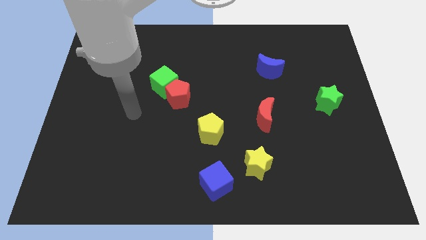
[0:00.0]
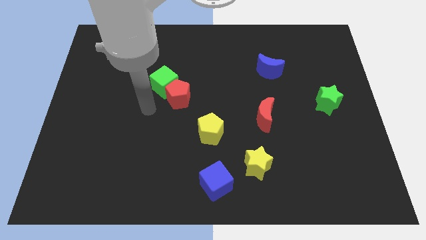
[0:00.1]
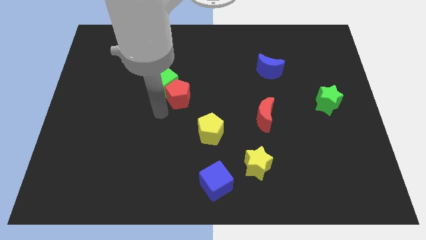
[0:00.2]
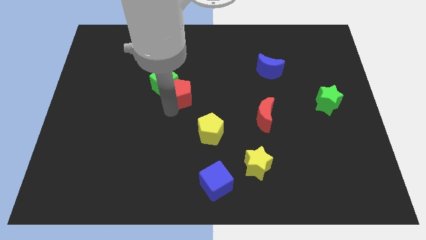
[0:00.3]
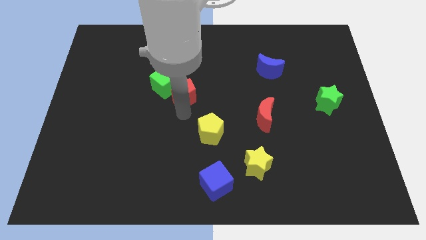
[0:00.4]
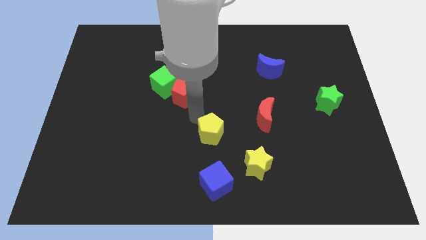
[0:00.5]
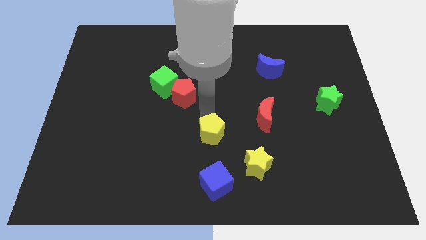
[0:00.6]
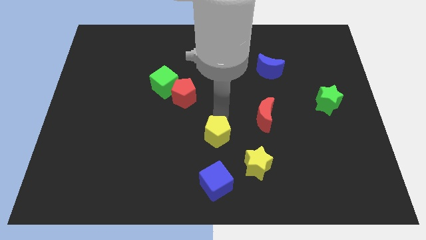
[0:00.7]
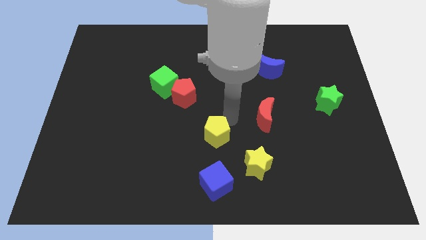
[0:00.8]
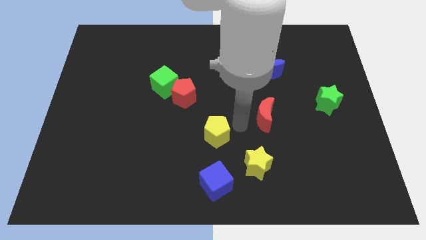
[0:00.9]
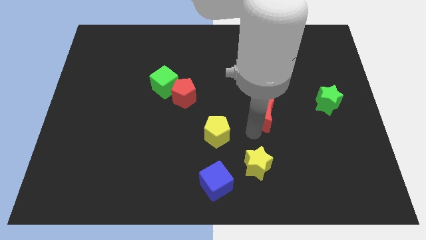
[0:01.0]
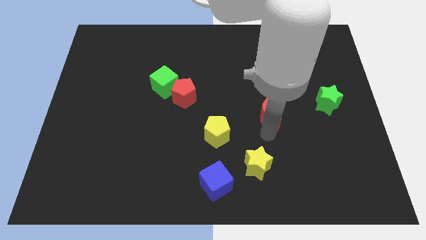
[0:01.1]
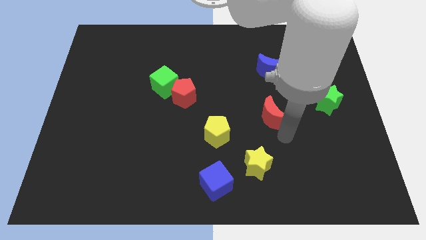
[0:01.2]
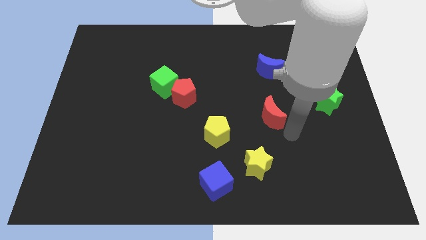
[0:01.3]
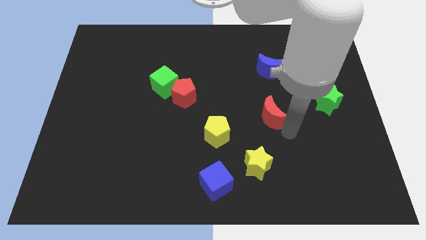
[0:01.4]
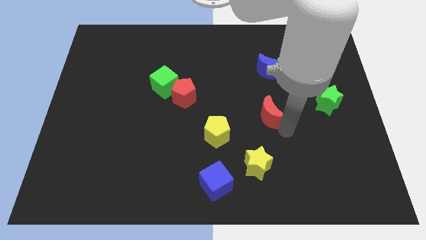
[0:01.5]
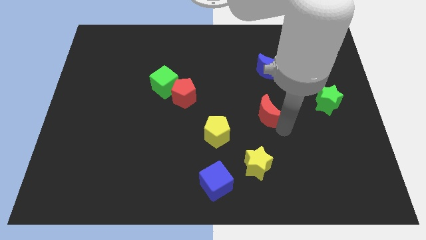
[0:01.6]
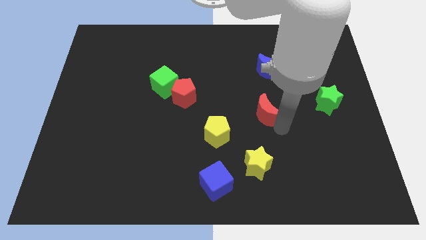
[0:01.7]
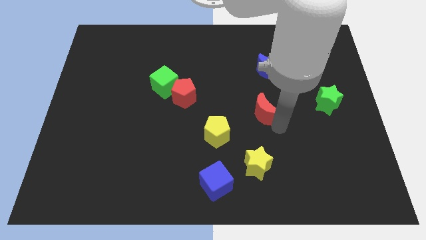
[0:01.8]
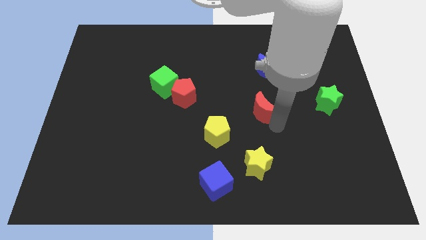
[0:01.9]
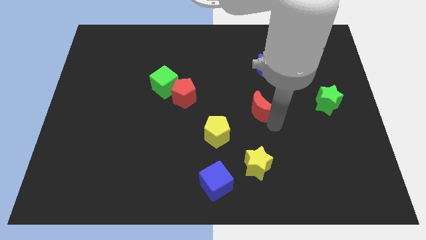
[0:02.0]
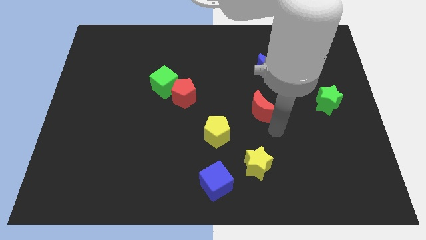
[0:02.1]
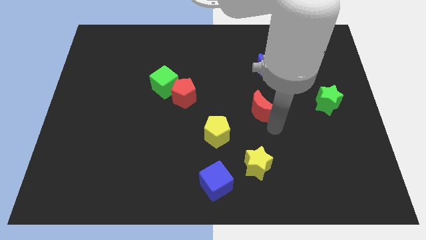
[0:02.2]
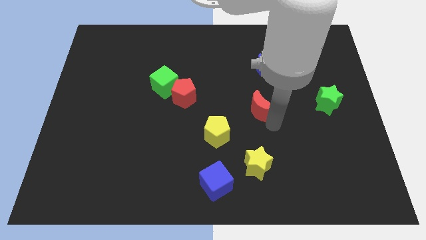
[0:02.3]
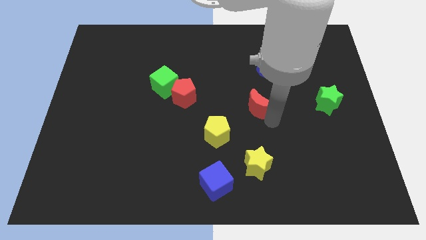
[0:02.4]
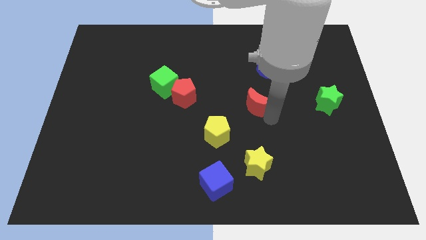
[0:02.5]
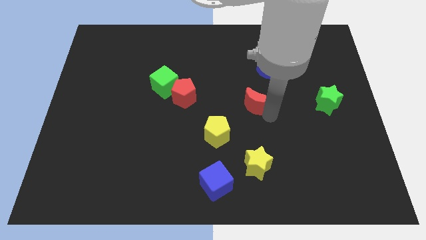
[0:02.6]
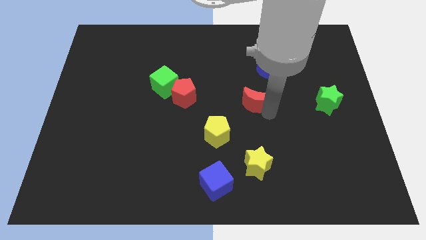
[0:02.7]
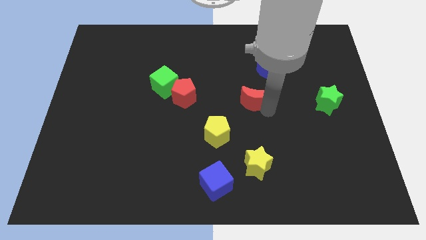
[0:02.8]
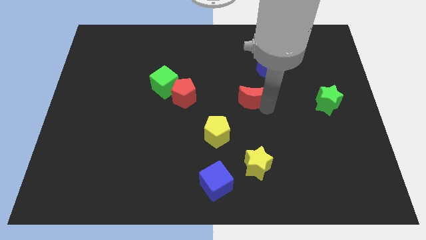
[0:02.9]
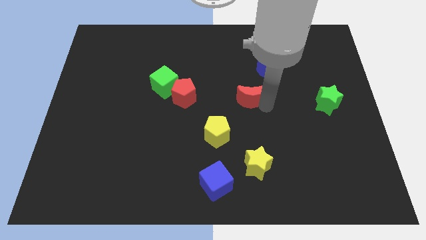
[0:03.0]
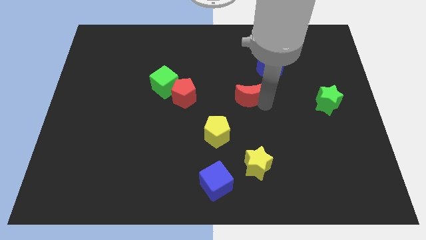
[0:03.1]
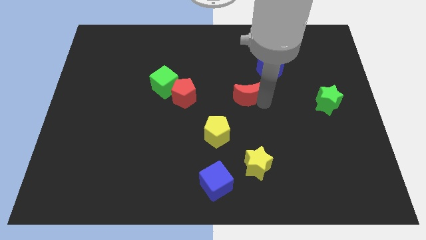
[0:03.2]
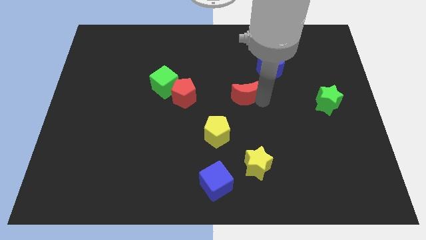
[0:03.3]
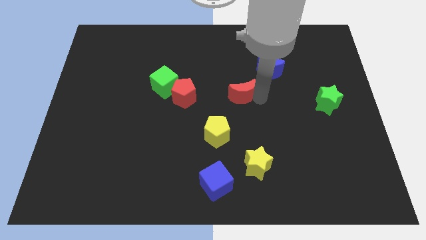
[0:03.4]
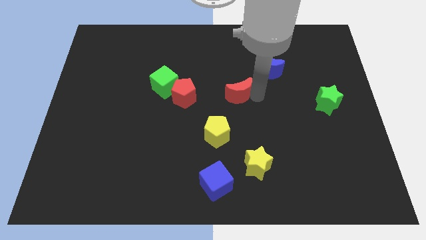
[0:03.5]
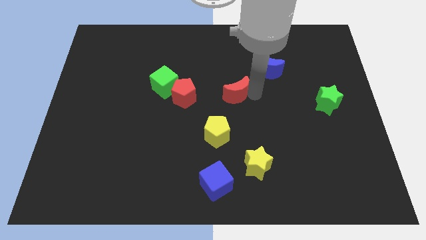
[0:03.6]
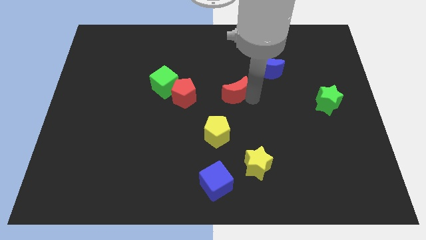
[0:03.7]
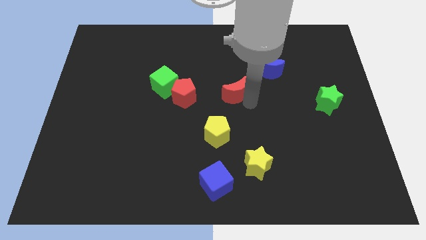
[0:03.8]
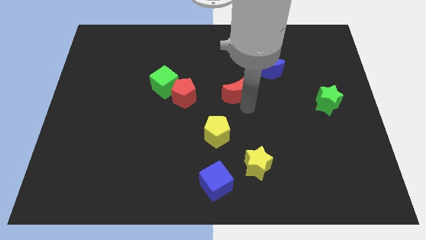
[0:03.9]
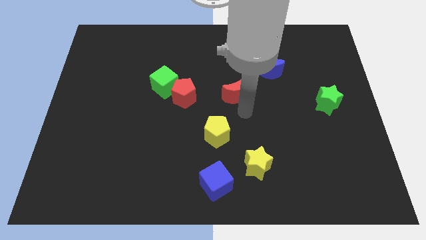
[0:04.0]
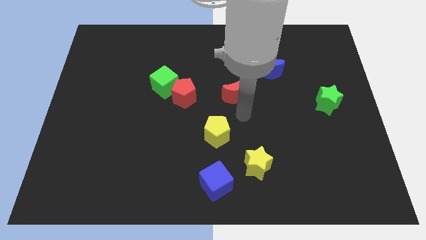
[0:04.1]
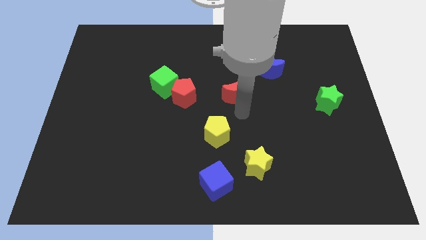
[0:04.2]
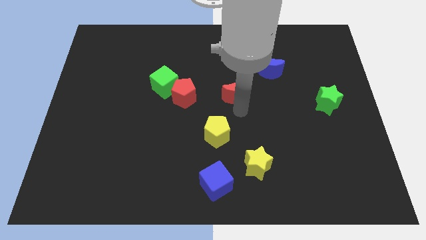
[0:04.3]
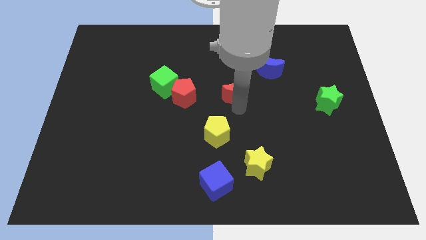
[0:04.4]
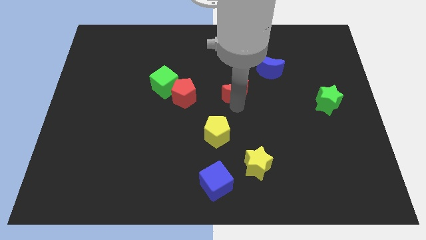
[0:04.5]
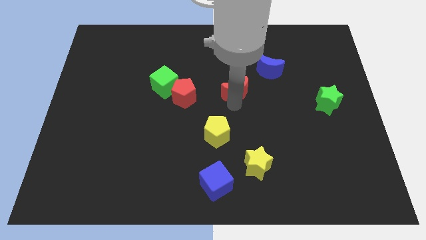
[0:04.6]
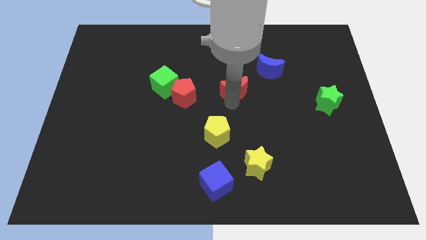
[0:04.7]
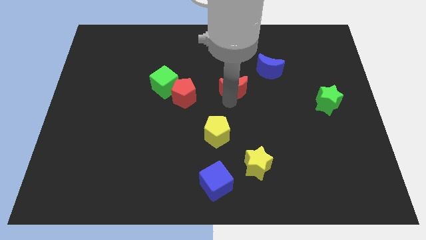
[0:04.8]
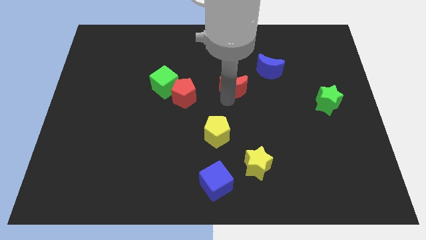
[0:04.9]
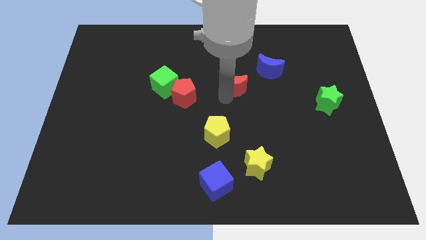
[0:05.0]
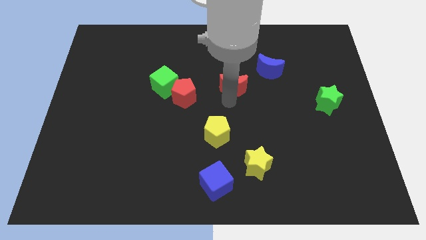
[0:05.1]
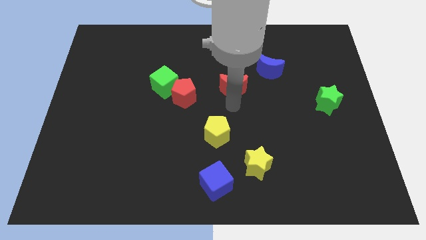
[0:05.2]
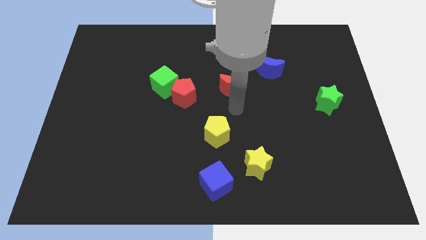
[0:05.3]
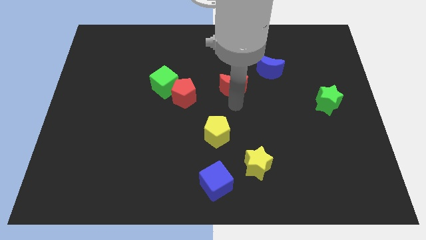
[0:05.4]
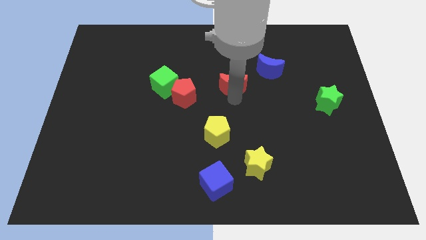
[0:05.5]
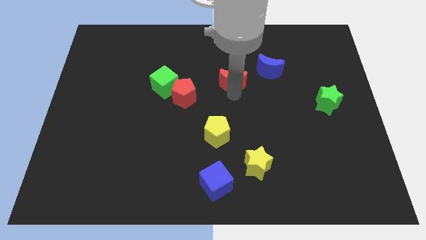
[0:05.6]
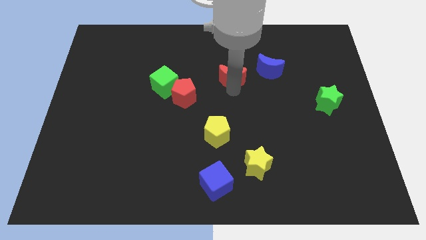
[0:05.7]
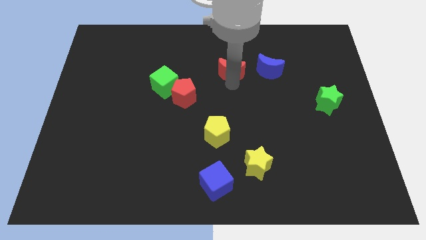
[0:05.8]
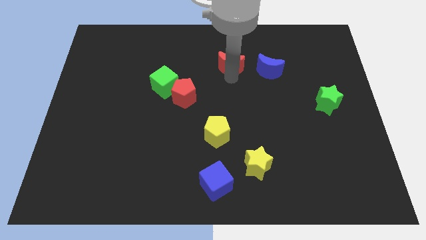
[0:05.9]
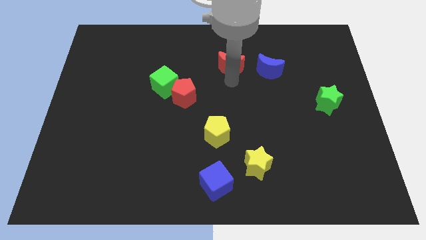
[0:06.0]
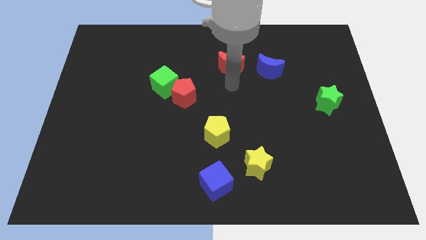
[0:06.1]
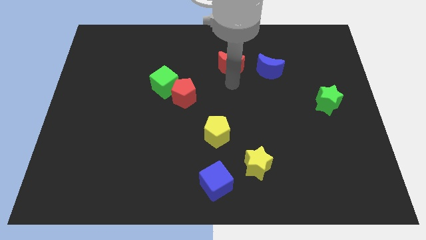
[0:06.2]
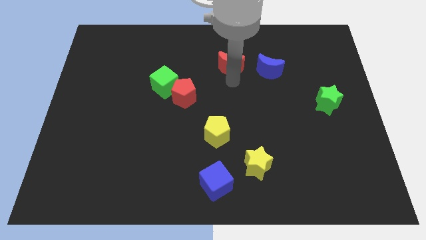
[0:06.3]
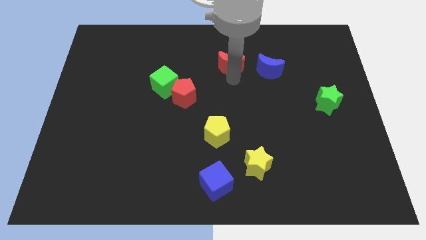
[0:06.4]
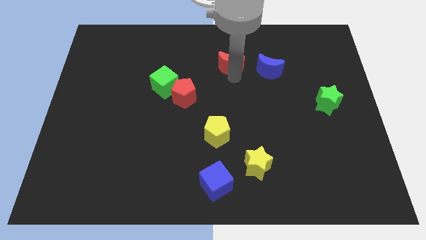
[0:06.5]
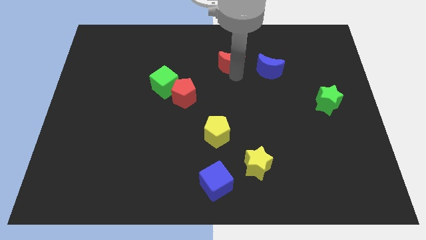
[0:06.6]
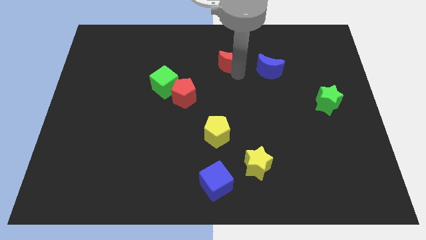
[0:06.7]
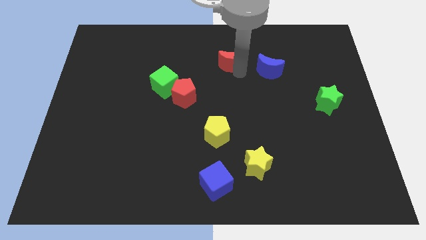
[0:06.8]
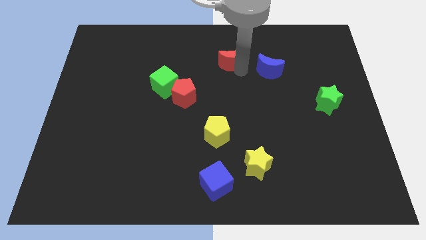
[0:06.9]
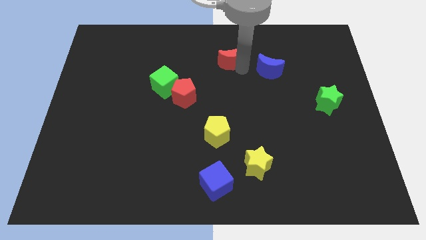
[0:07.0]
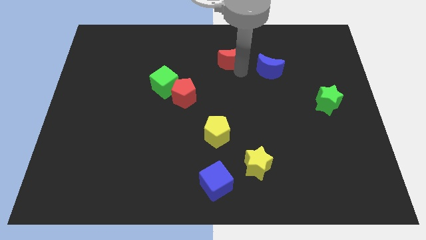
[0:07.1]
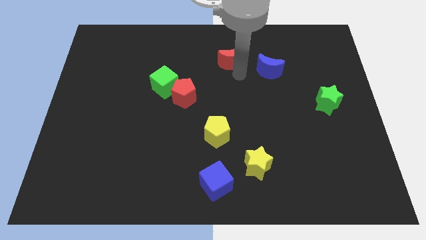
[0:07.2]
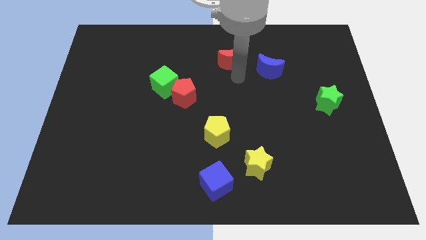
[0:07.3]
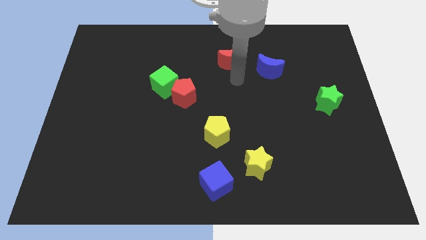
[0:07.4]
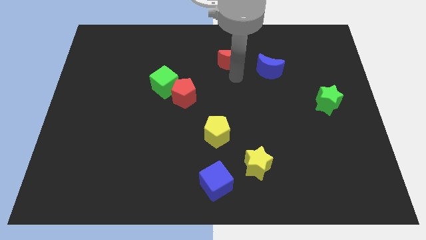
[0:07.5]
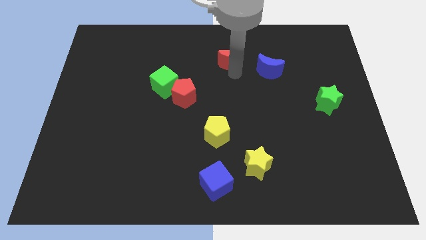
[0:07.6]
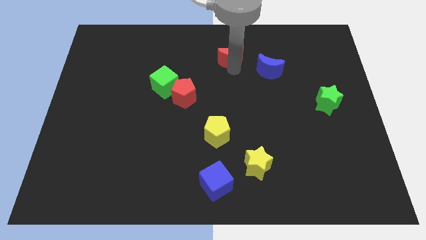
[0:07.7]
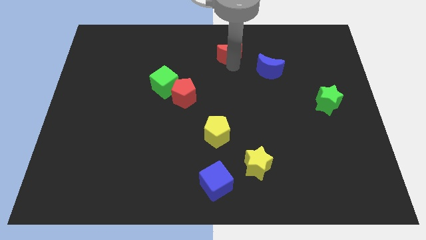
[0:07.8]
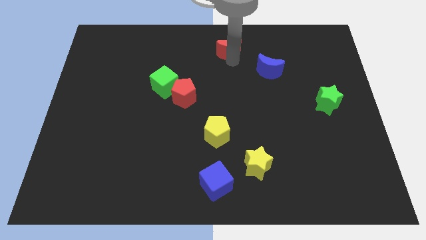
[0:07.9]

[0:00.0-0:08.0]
push the red moon to the top side
